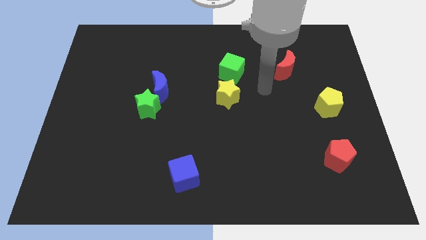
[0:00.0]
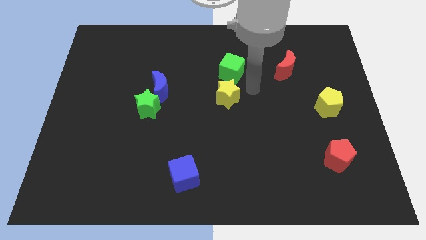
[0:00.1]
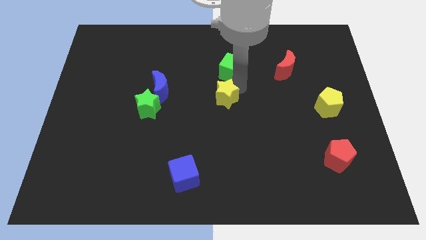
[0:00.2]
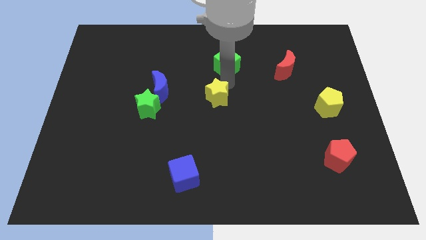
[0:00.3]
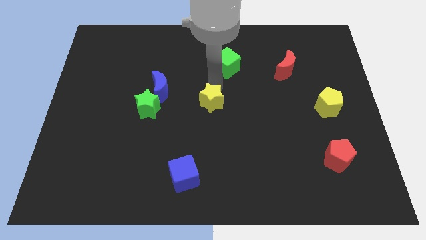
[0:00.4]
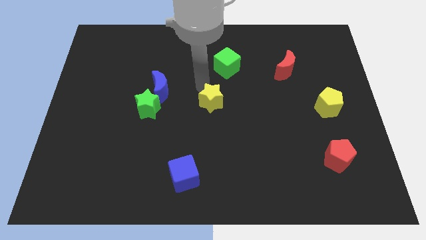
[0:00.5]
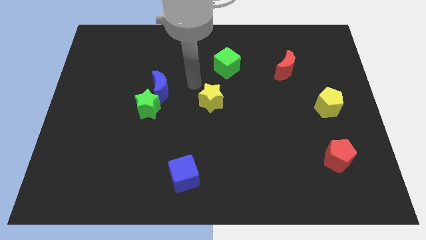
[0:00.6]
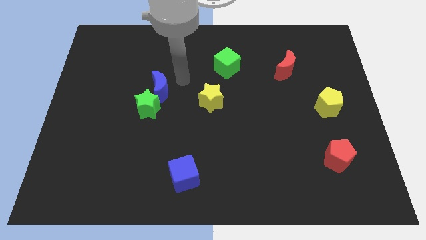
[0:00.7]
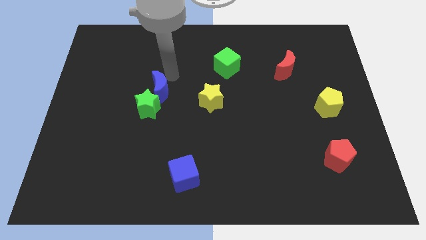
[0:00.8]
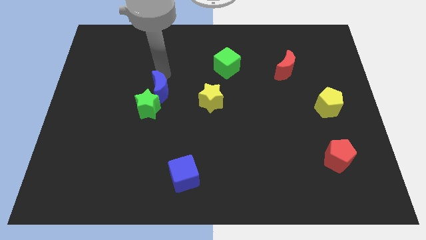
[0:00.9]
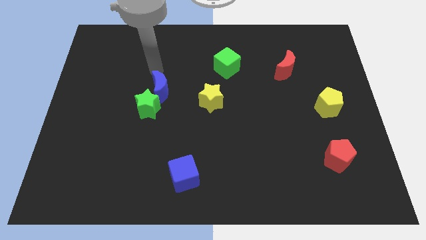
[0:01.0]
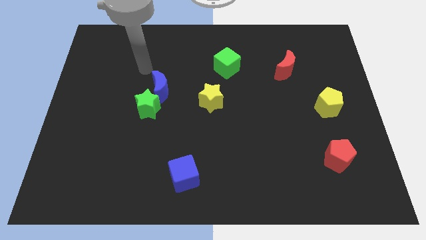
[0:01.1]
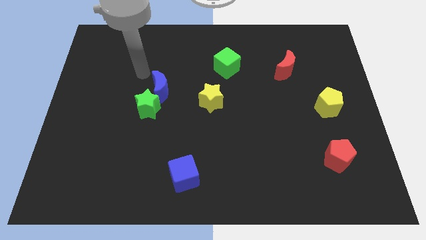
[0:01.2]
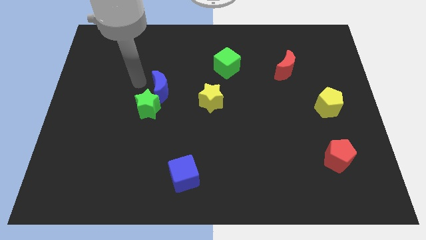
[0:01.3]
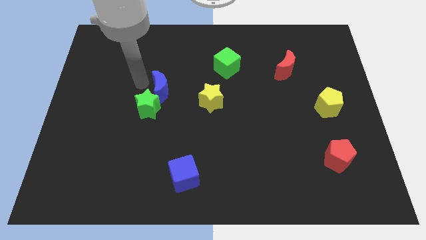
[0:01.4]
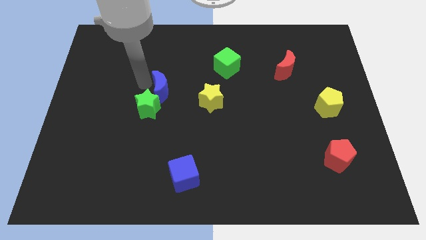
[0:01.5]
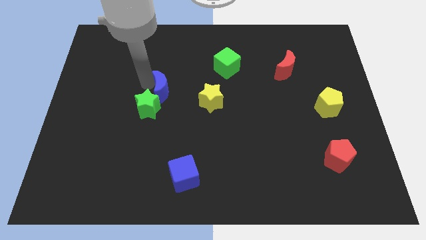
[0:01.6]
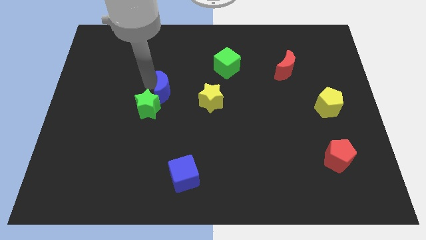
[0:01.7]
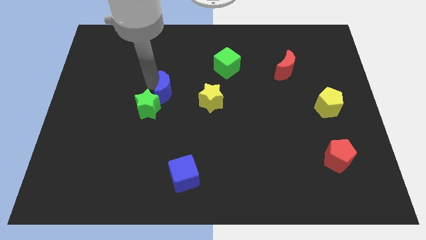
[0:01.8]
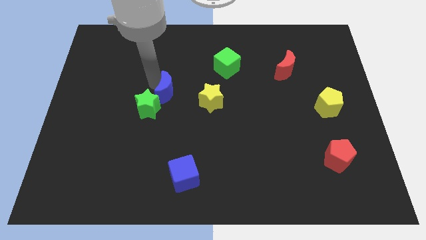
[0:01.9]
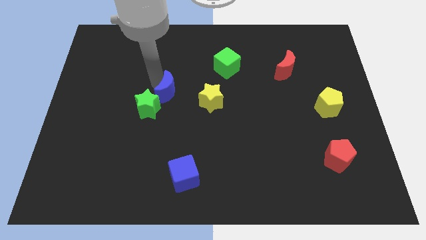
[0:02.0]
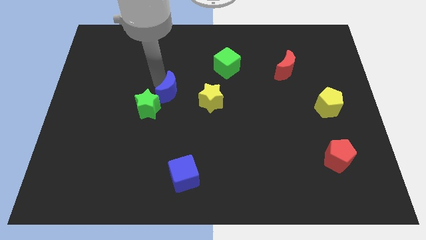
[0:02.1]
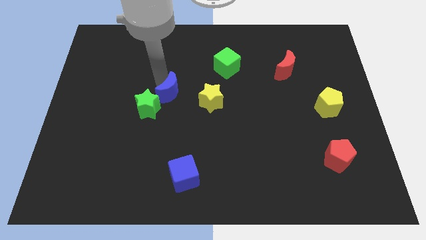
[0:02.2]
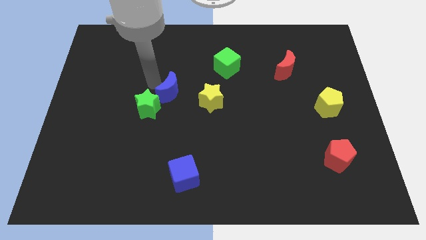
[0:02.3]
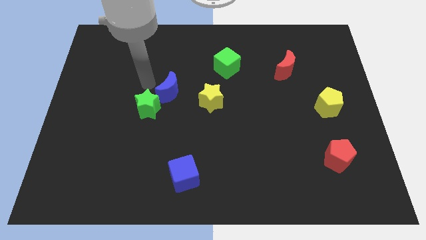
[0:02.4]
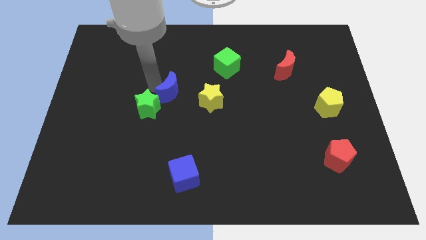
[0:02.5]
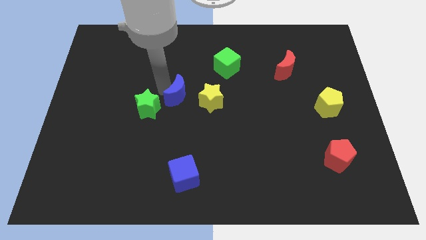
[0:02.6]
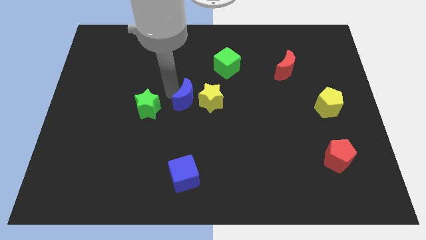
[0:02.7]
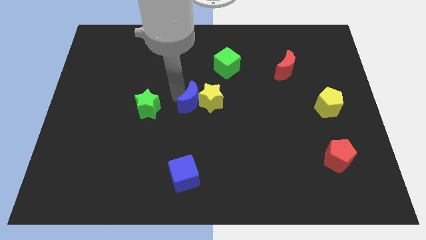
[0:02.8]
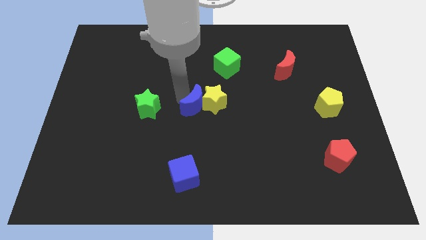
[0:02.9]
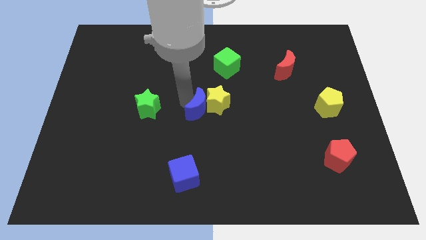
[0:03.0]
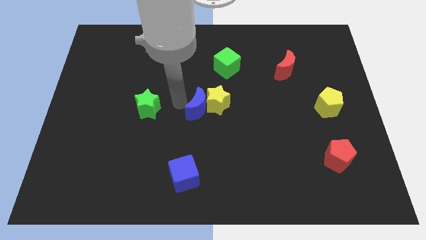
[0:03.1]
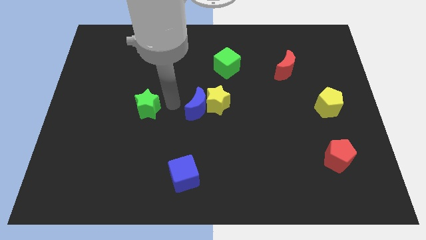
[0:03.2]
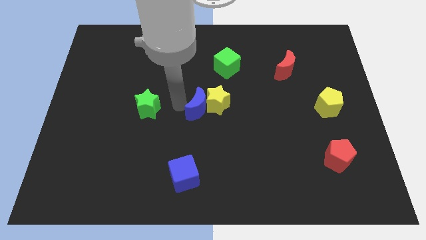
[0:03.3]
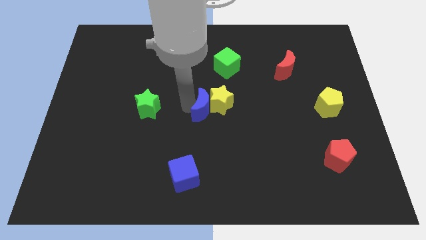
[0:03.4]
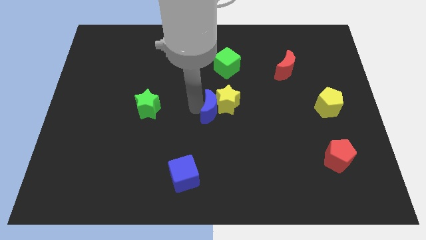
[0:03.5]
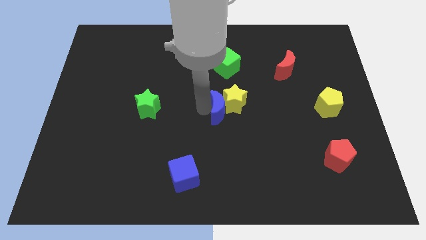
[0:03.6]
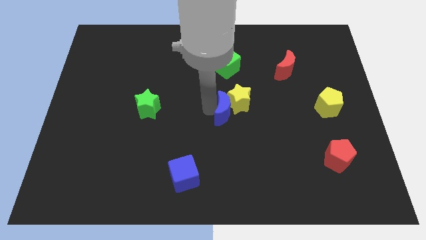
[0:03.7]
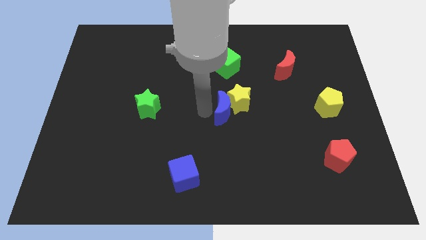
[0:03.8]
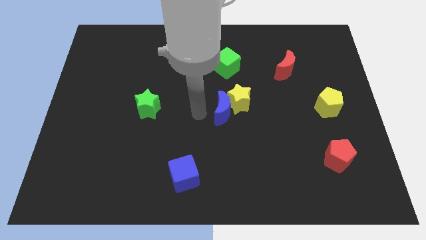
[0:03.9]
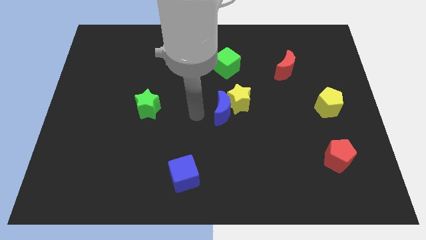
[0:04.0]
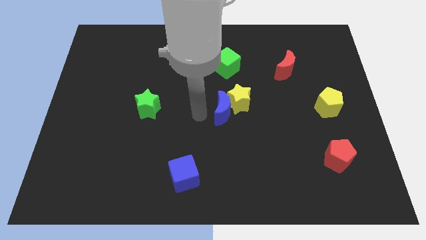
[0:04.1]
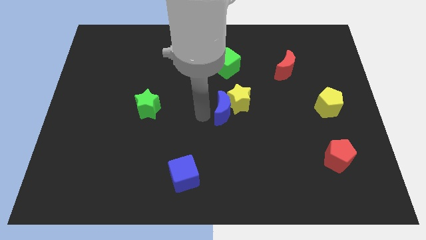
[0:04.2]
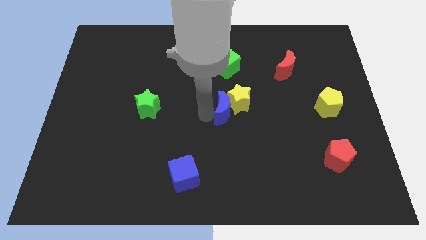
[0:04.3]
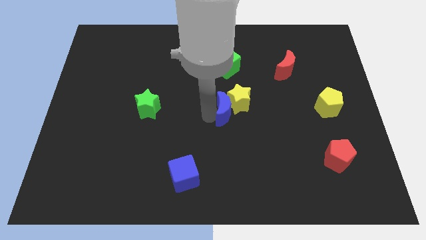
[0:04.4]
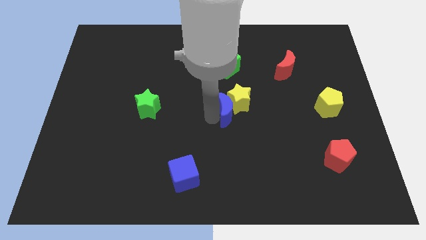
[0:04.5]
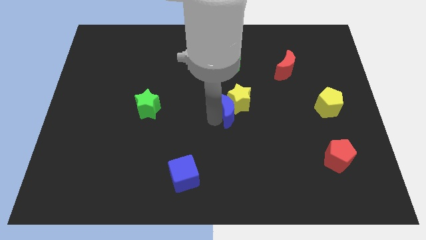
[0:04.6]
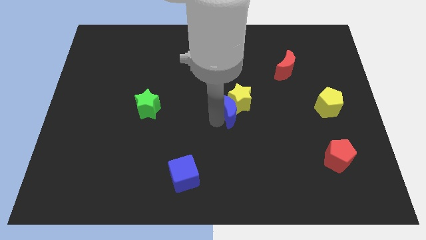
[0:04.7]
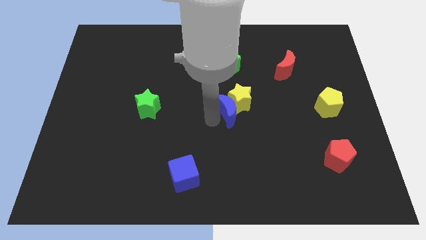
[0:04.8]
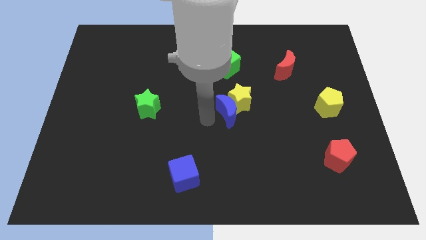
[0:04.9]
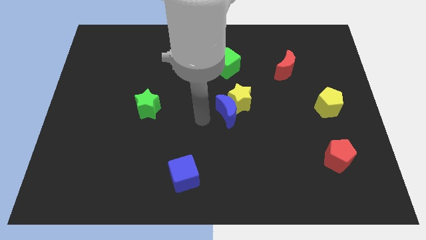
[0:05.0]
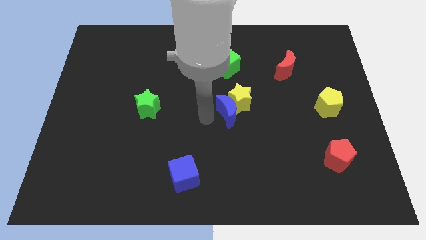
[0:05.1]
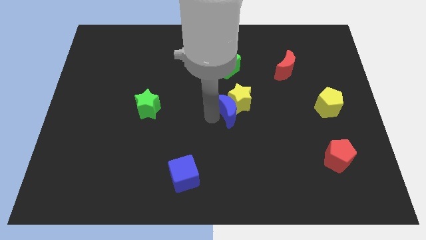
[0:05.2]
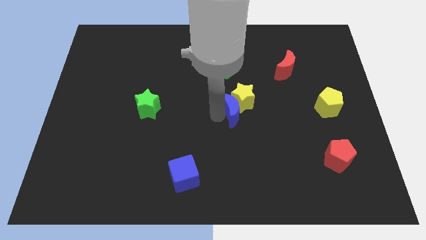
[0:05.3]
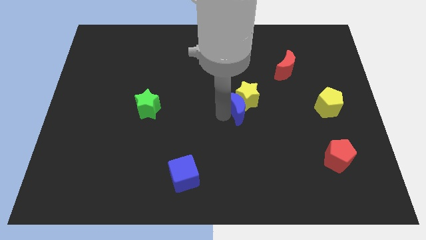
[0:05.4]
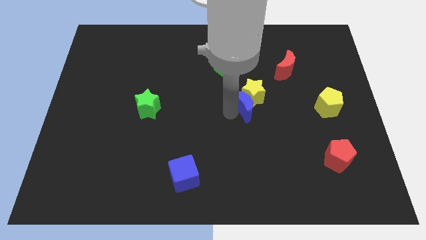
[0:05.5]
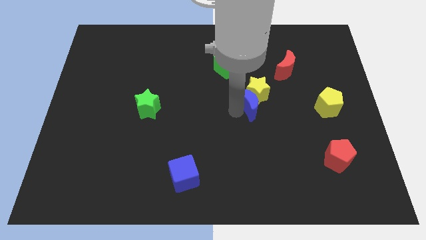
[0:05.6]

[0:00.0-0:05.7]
slide the blue moon to the right

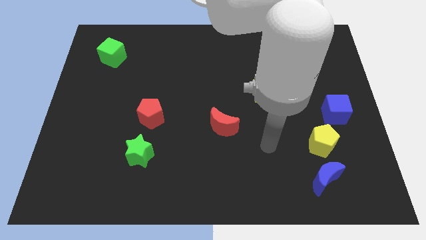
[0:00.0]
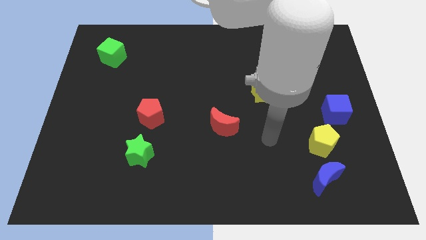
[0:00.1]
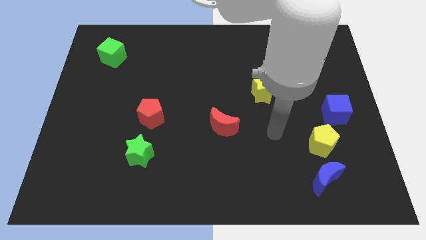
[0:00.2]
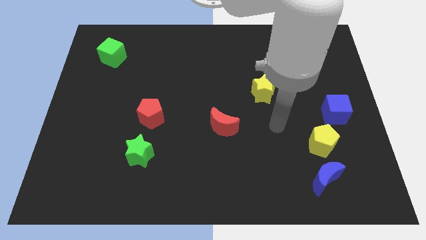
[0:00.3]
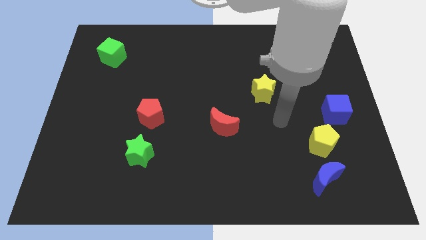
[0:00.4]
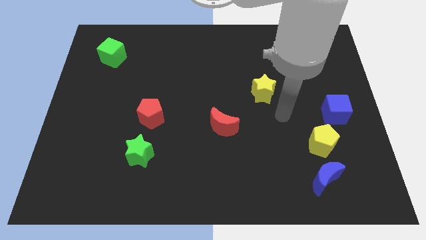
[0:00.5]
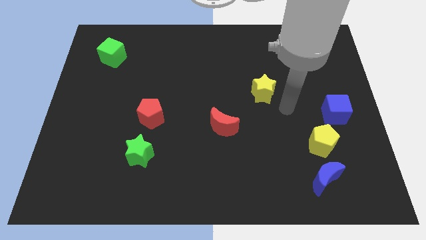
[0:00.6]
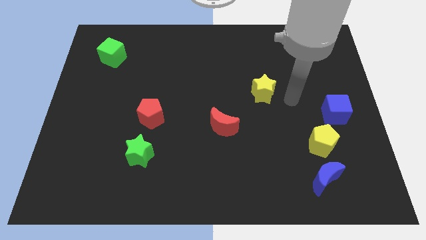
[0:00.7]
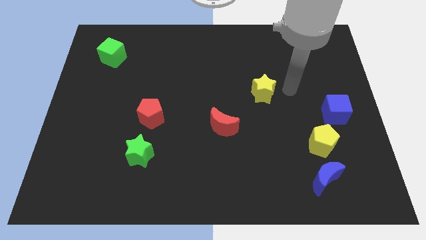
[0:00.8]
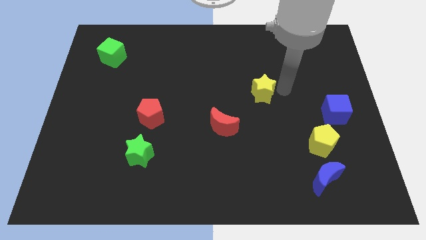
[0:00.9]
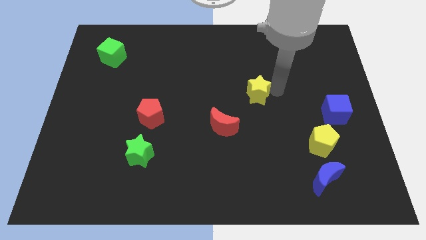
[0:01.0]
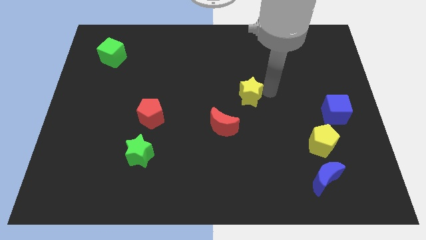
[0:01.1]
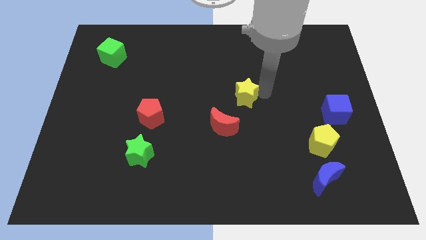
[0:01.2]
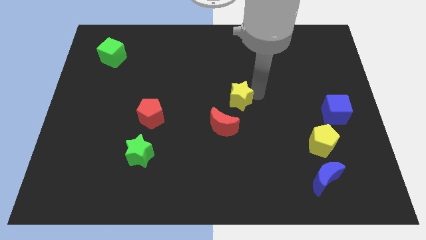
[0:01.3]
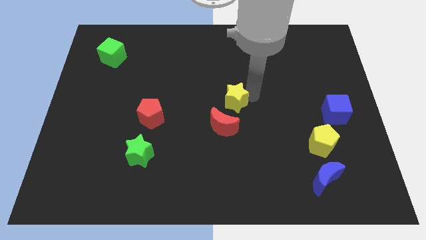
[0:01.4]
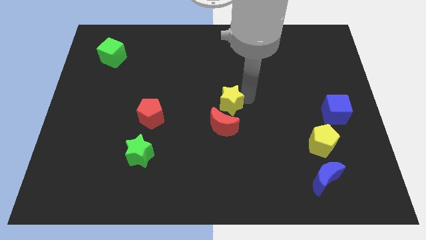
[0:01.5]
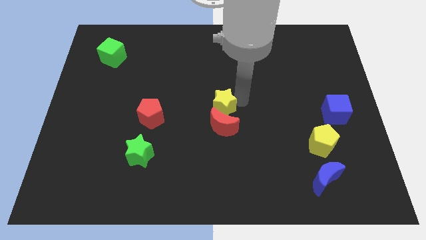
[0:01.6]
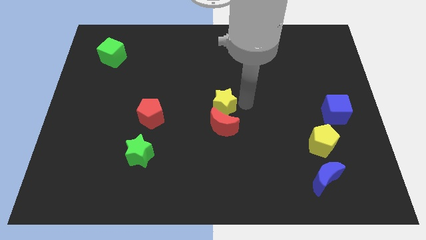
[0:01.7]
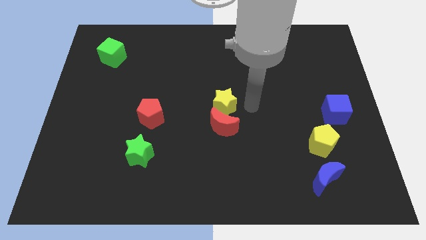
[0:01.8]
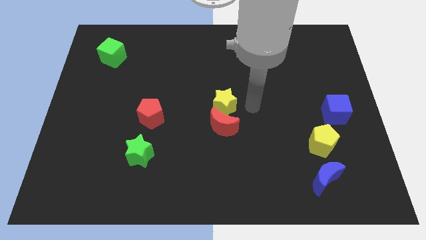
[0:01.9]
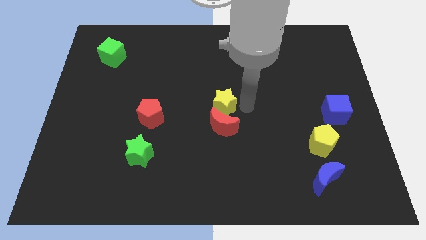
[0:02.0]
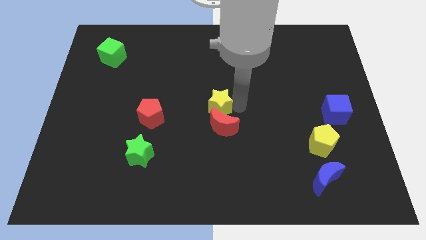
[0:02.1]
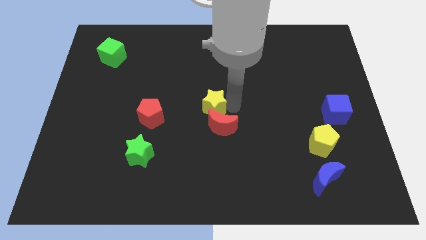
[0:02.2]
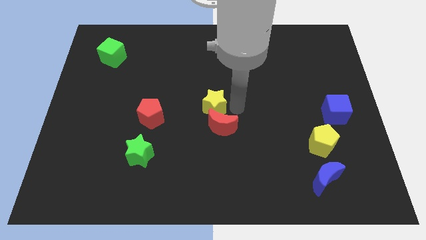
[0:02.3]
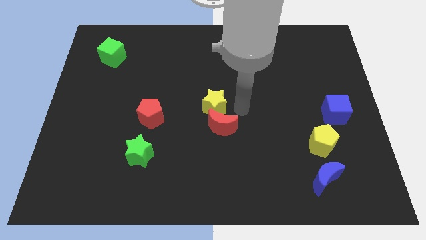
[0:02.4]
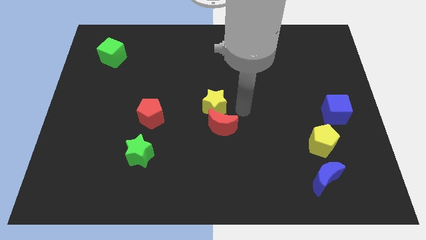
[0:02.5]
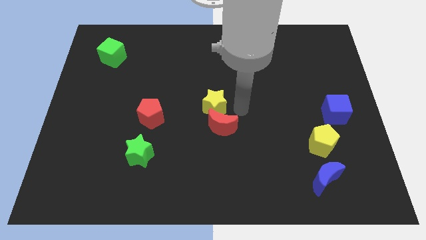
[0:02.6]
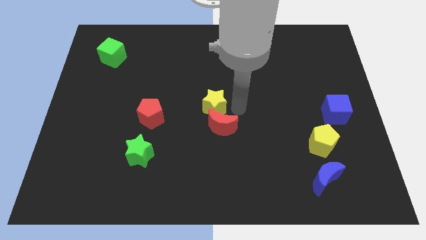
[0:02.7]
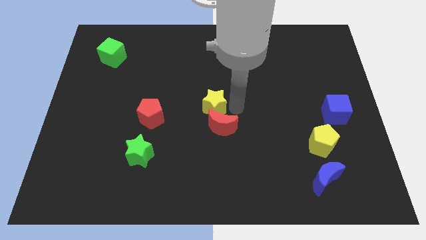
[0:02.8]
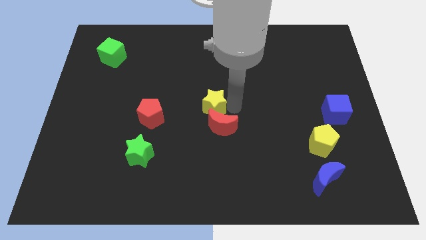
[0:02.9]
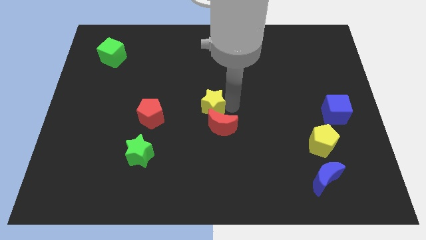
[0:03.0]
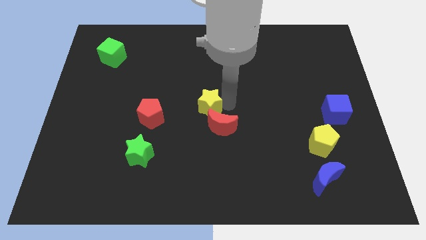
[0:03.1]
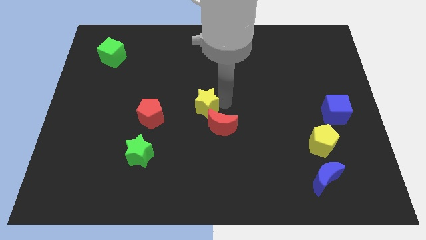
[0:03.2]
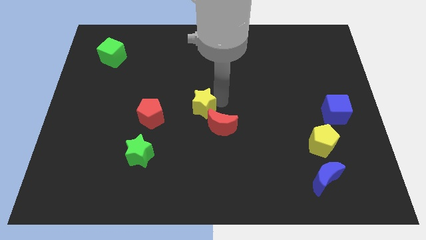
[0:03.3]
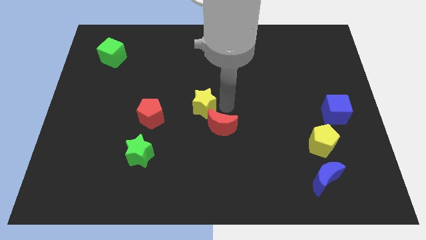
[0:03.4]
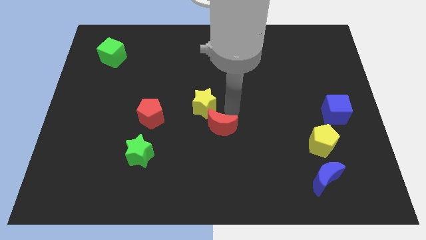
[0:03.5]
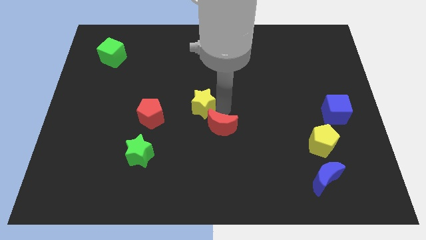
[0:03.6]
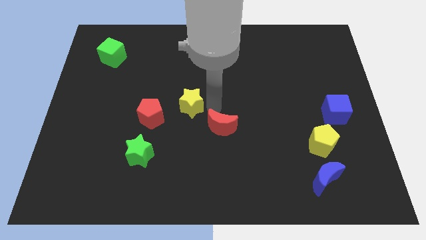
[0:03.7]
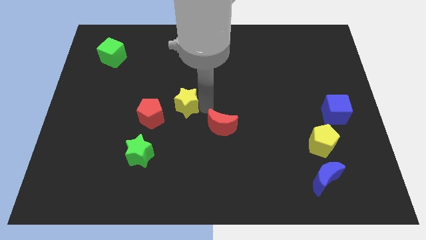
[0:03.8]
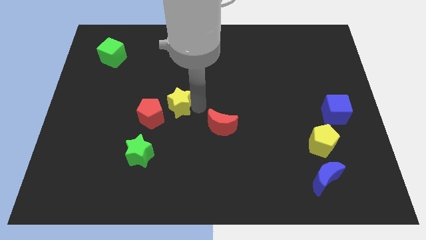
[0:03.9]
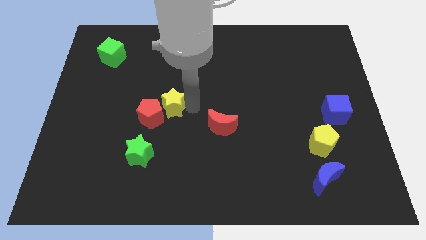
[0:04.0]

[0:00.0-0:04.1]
move the yellow star to the left
